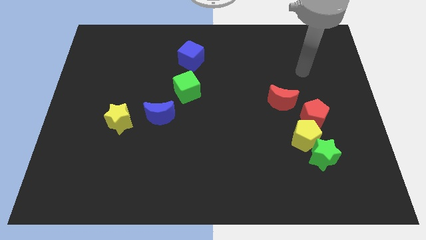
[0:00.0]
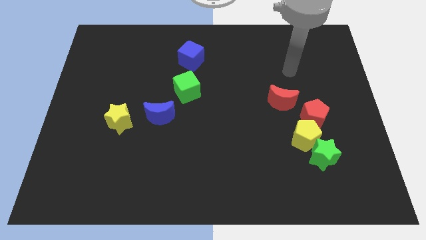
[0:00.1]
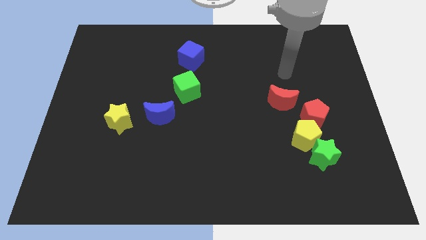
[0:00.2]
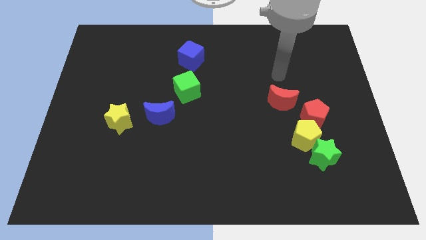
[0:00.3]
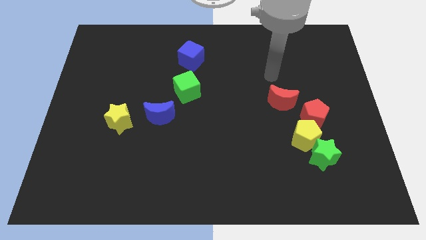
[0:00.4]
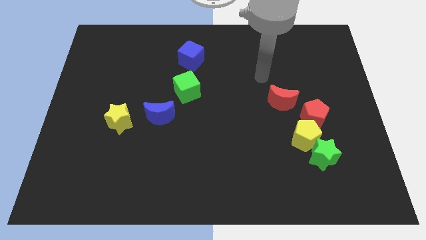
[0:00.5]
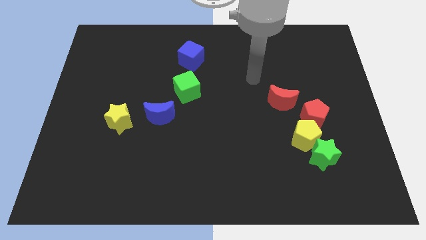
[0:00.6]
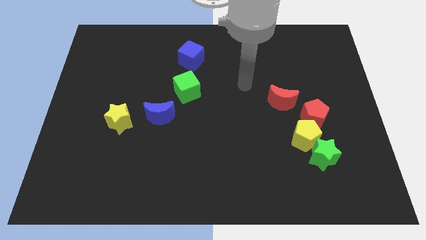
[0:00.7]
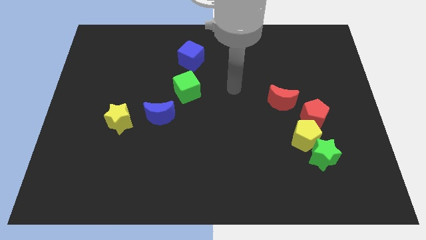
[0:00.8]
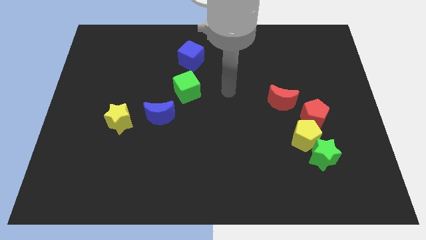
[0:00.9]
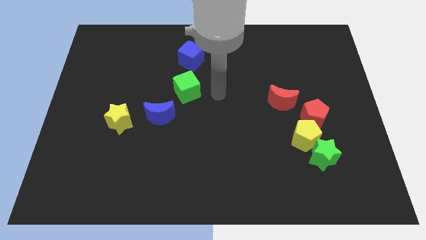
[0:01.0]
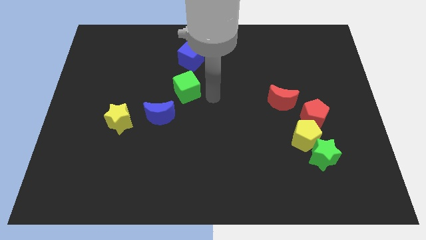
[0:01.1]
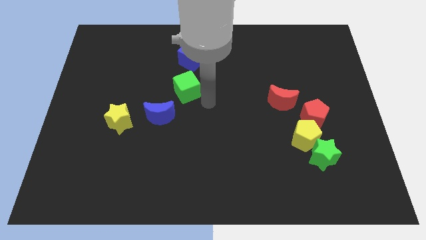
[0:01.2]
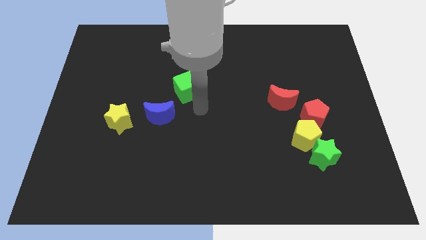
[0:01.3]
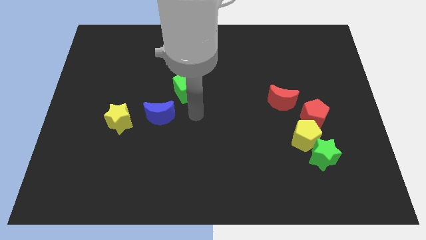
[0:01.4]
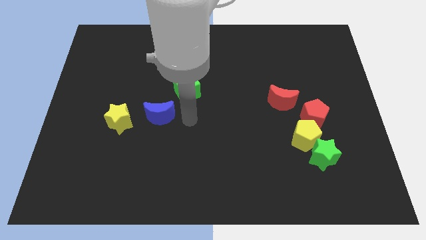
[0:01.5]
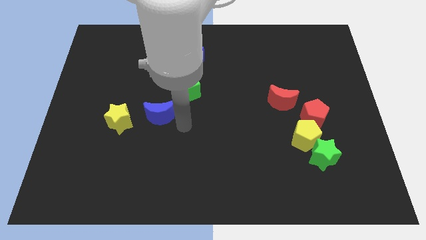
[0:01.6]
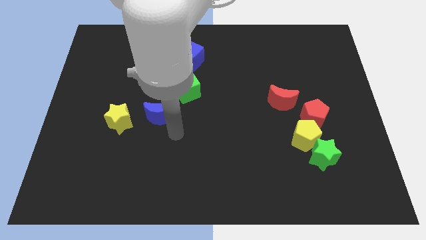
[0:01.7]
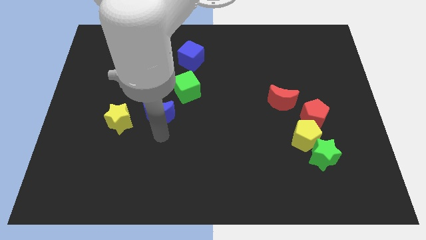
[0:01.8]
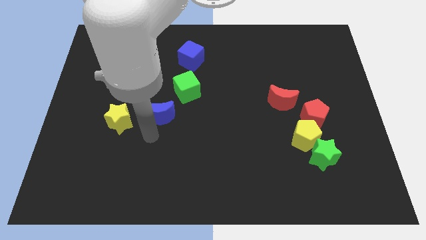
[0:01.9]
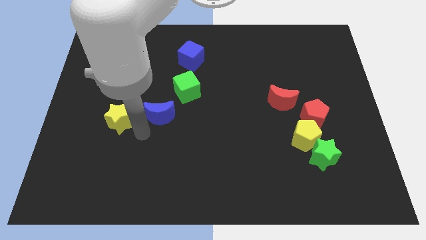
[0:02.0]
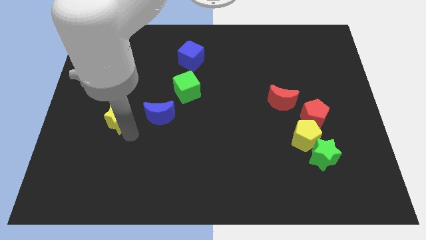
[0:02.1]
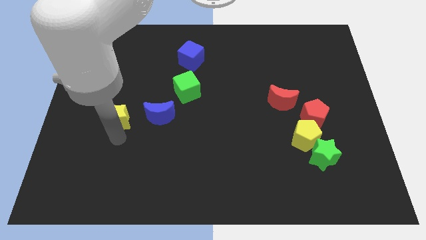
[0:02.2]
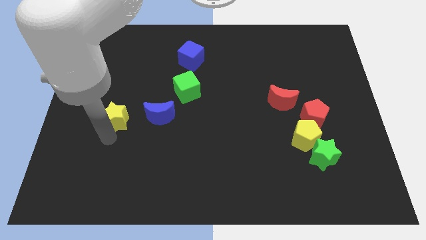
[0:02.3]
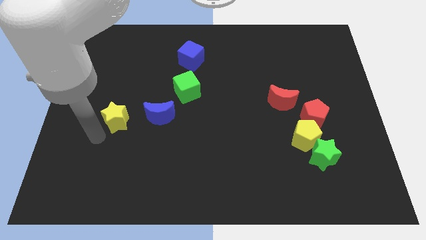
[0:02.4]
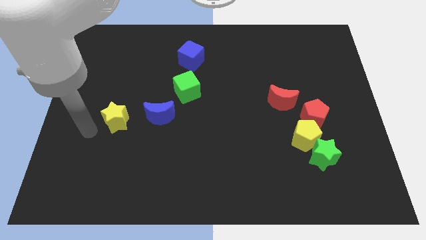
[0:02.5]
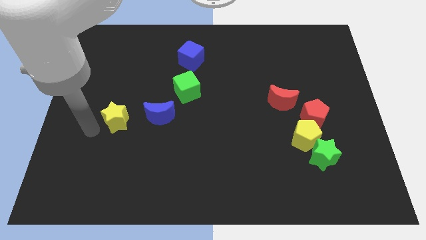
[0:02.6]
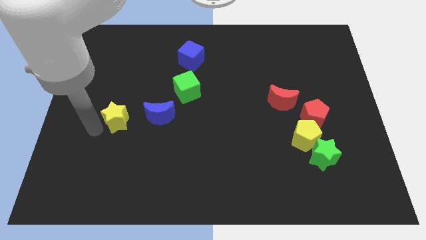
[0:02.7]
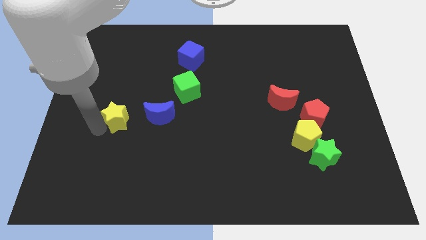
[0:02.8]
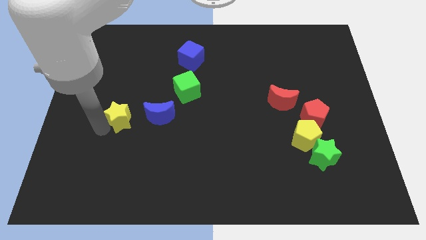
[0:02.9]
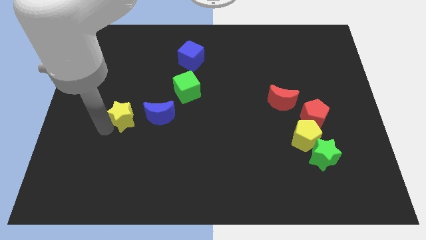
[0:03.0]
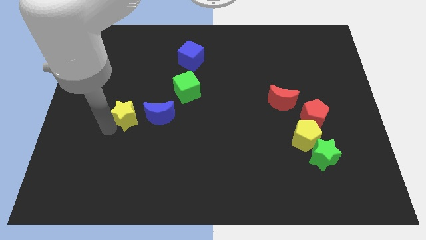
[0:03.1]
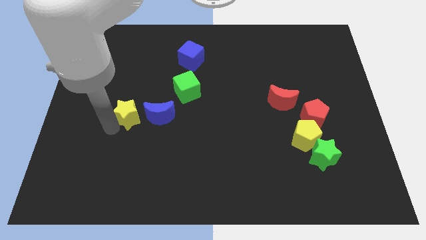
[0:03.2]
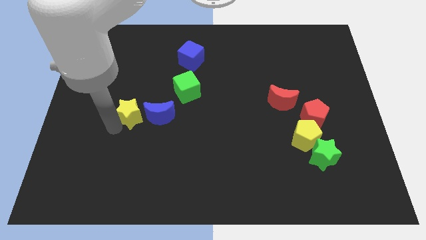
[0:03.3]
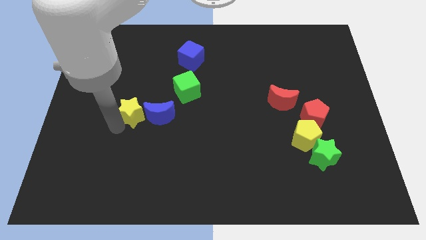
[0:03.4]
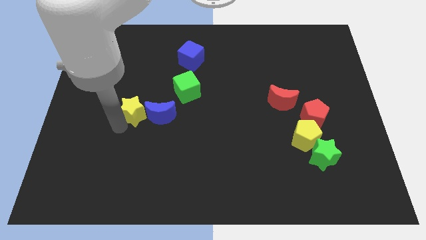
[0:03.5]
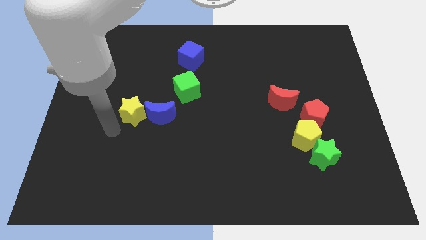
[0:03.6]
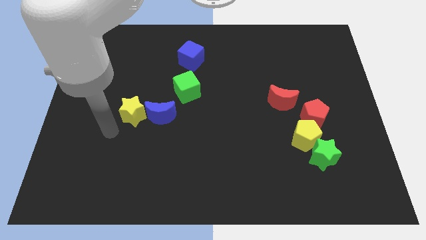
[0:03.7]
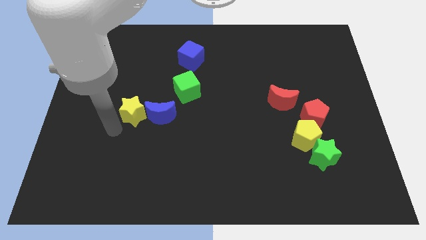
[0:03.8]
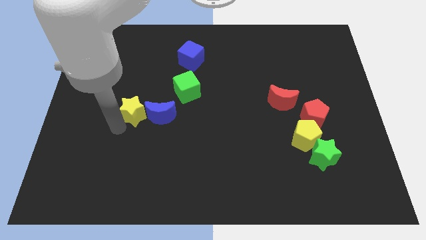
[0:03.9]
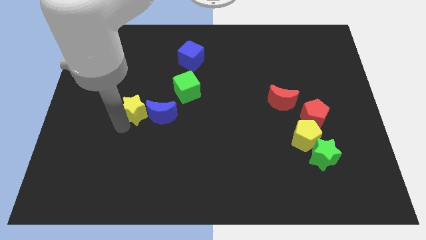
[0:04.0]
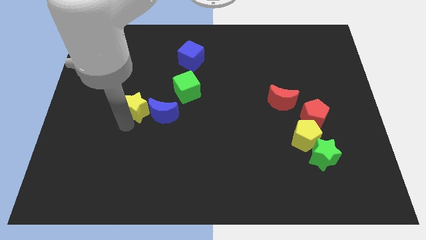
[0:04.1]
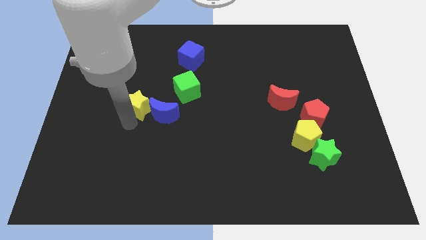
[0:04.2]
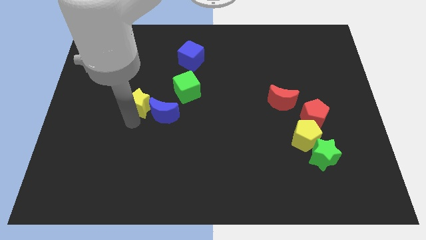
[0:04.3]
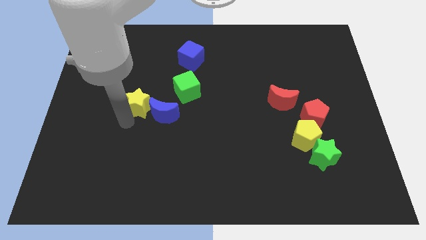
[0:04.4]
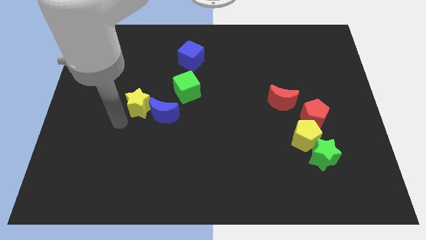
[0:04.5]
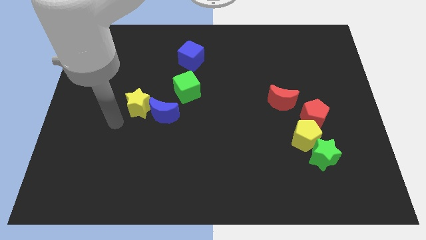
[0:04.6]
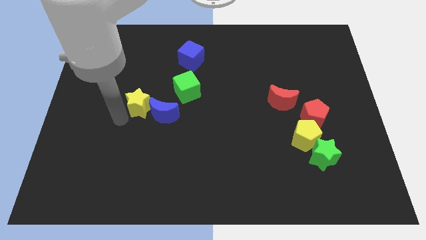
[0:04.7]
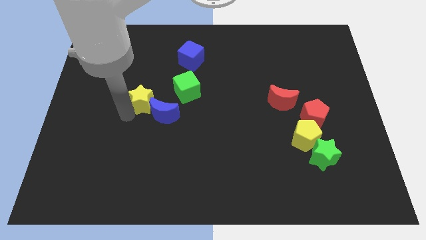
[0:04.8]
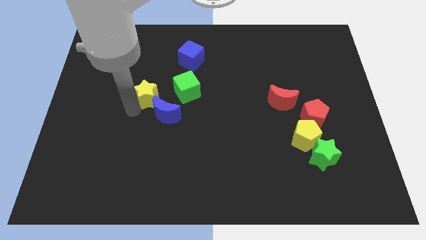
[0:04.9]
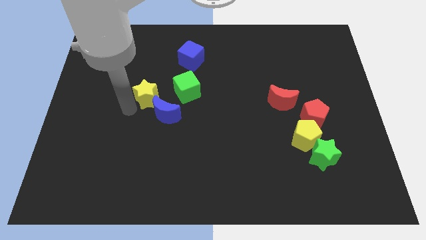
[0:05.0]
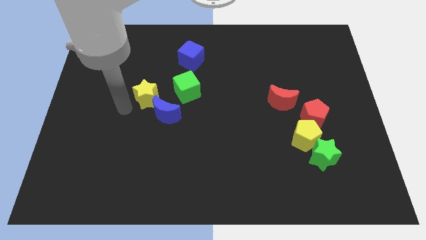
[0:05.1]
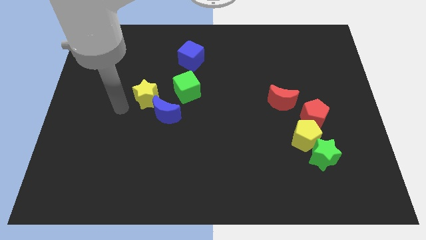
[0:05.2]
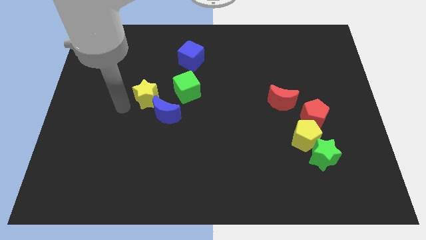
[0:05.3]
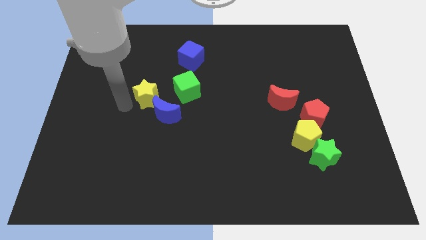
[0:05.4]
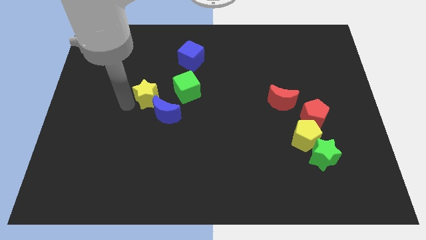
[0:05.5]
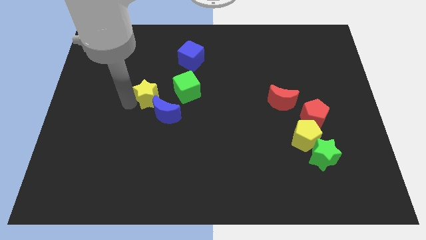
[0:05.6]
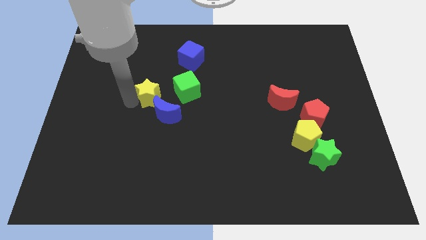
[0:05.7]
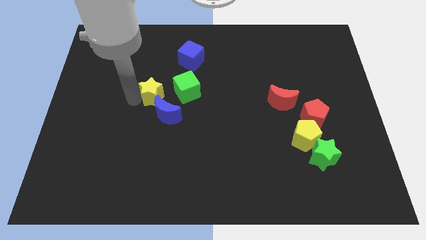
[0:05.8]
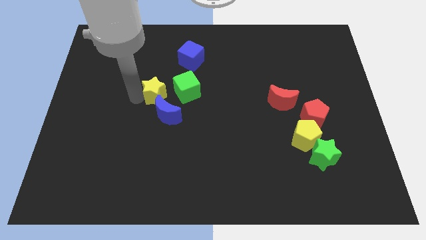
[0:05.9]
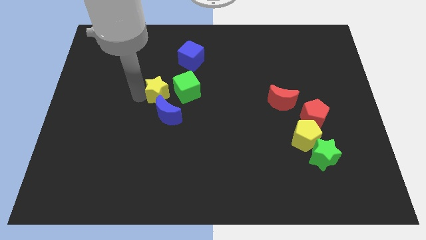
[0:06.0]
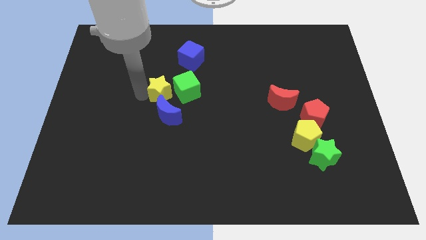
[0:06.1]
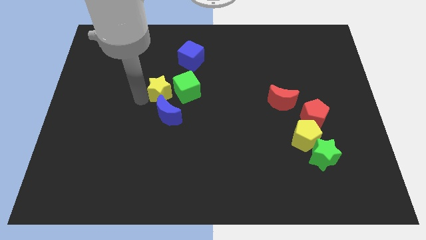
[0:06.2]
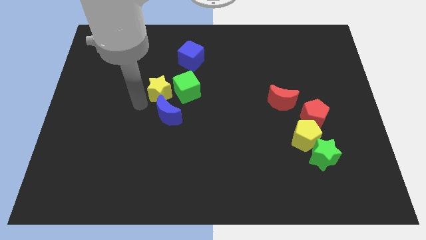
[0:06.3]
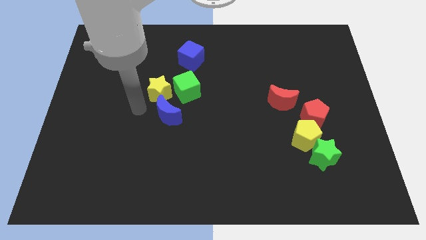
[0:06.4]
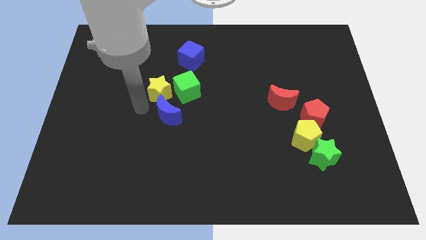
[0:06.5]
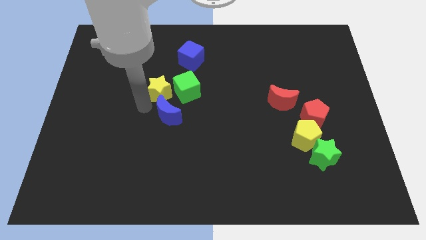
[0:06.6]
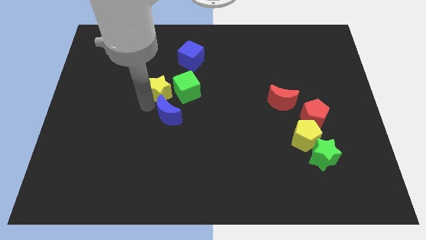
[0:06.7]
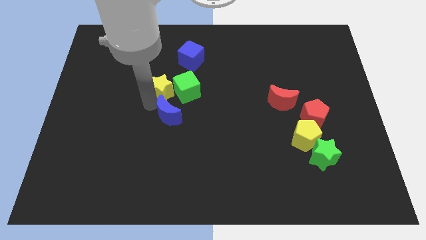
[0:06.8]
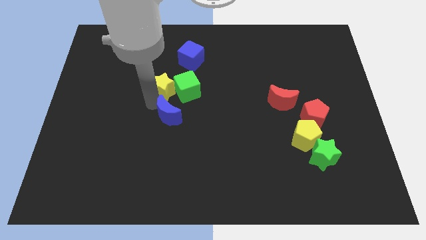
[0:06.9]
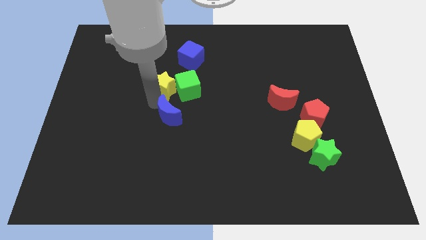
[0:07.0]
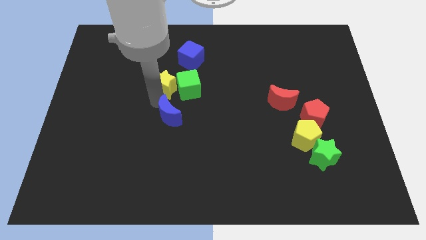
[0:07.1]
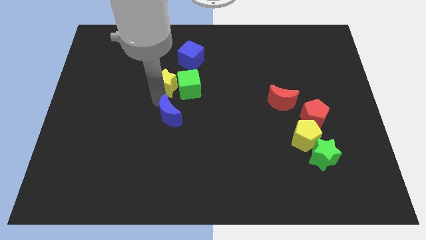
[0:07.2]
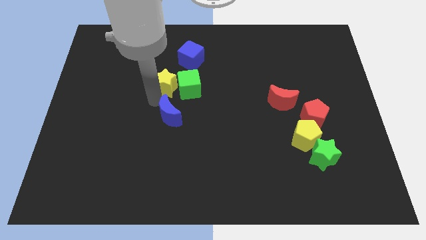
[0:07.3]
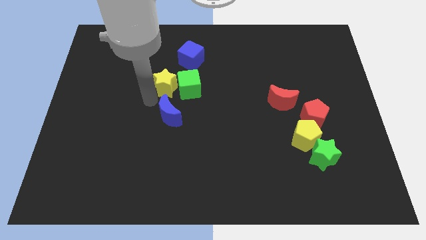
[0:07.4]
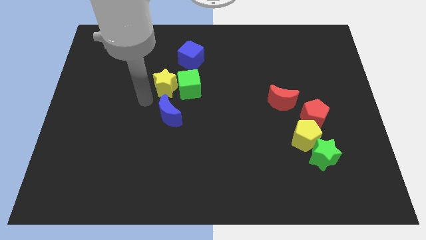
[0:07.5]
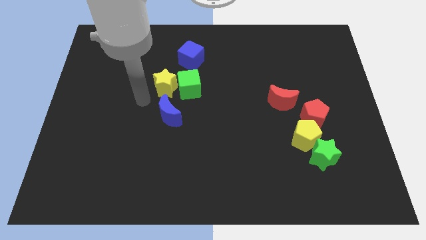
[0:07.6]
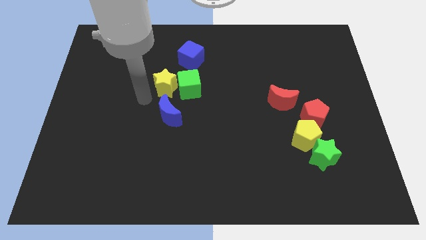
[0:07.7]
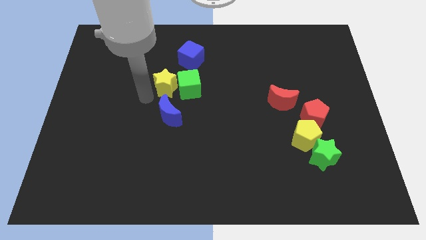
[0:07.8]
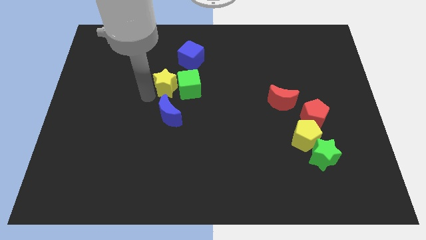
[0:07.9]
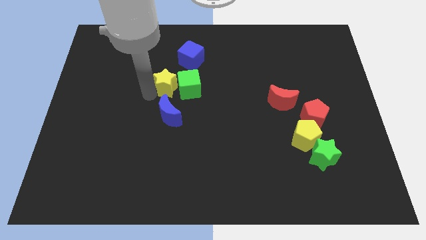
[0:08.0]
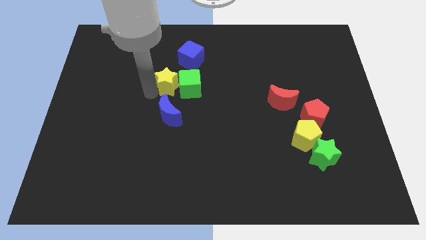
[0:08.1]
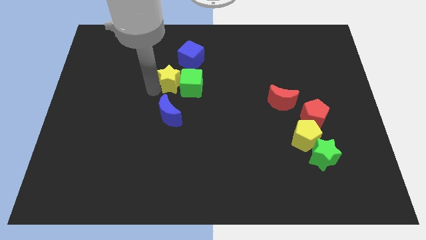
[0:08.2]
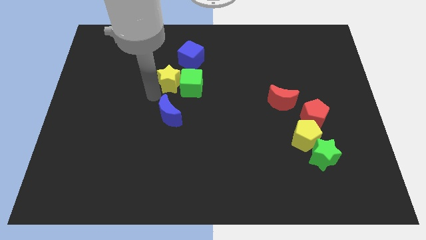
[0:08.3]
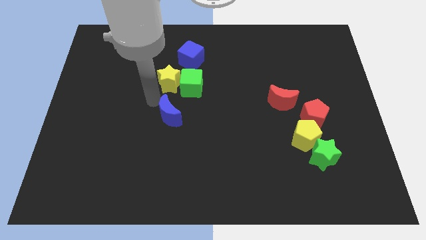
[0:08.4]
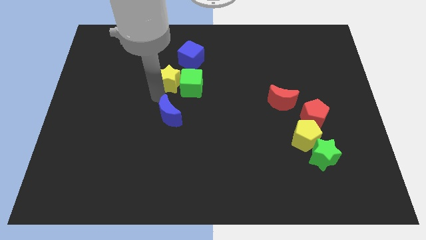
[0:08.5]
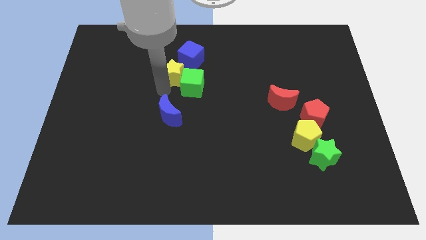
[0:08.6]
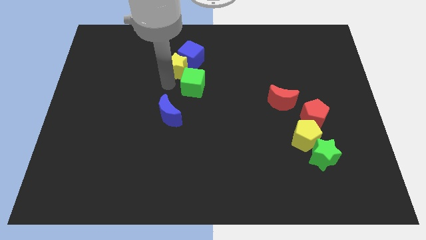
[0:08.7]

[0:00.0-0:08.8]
push the yellow star towards the blue cube
